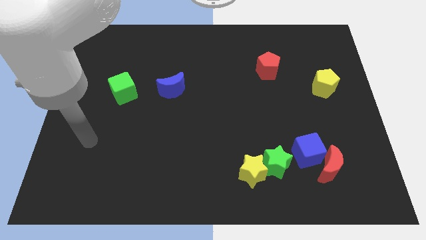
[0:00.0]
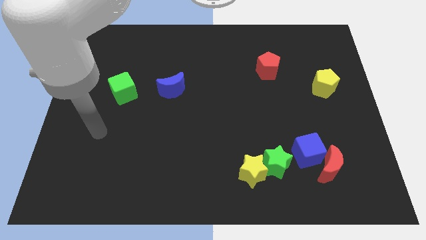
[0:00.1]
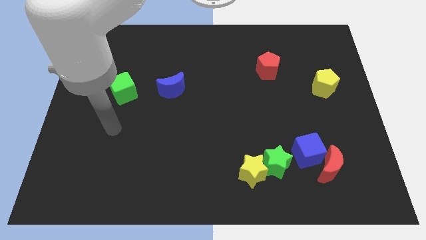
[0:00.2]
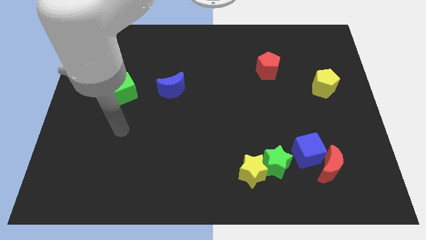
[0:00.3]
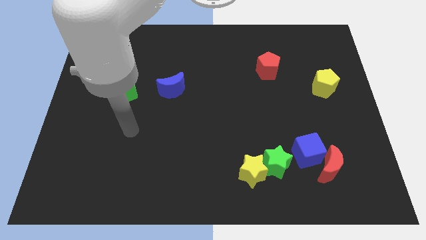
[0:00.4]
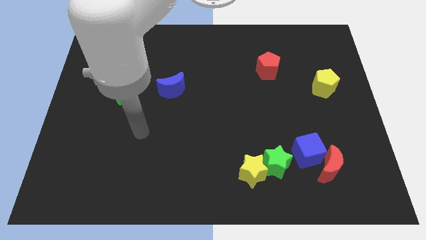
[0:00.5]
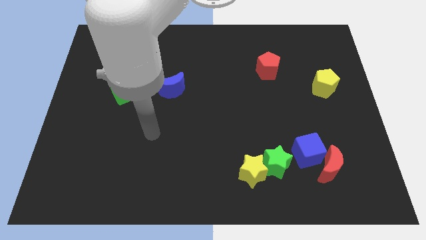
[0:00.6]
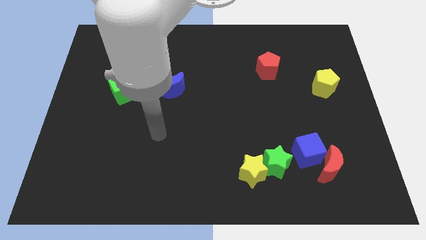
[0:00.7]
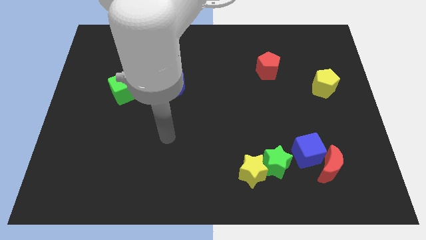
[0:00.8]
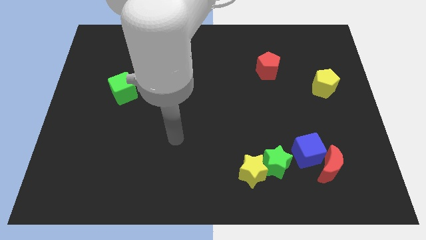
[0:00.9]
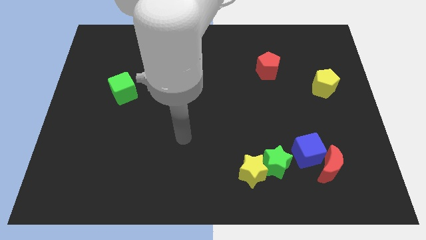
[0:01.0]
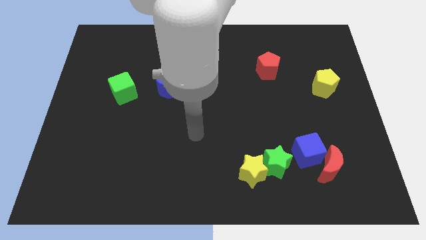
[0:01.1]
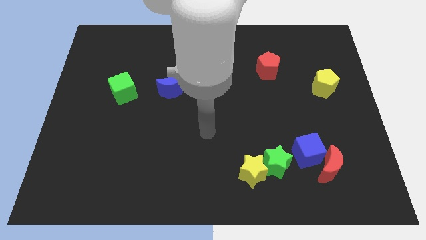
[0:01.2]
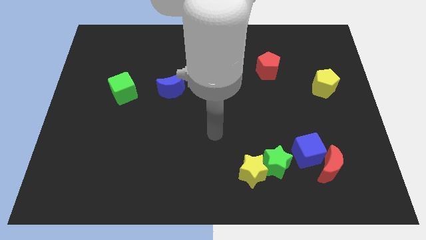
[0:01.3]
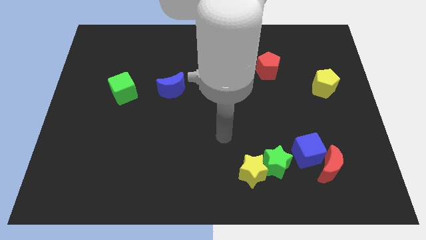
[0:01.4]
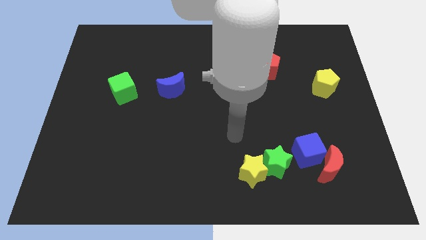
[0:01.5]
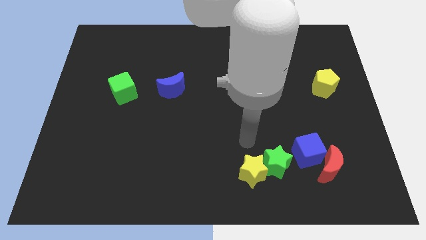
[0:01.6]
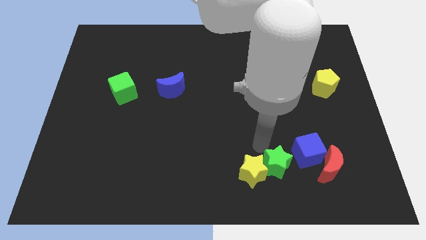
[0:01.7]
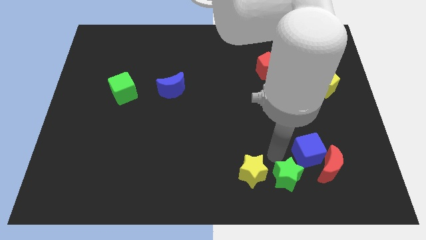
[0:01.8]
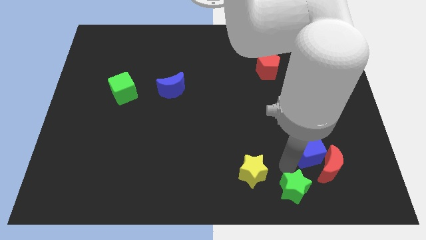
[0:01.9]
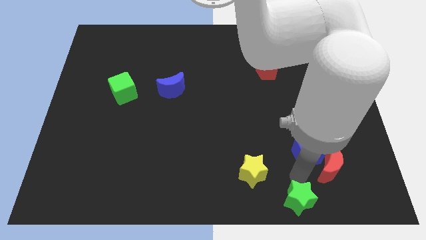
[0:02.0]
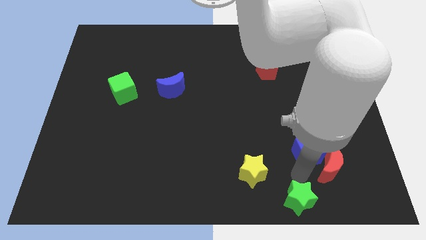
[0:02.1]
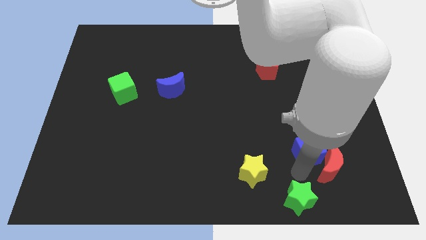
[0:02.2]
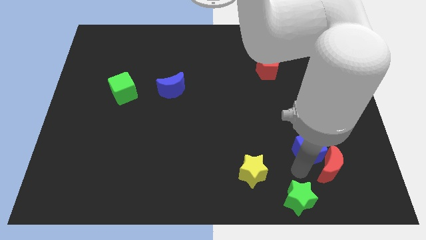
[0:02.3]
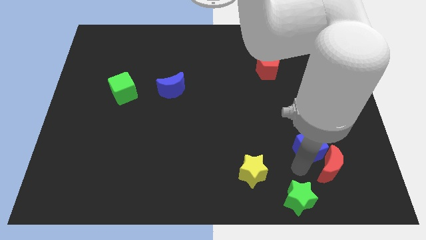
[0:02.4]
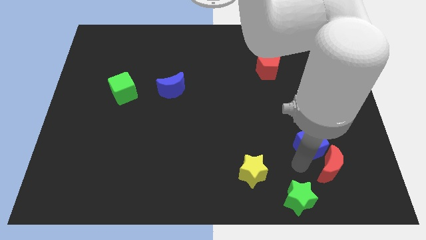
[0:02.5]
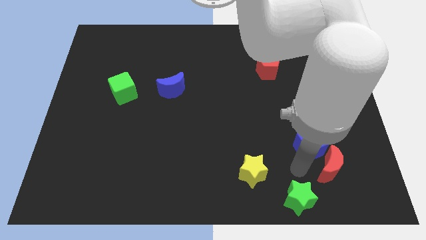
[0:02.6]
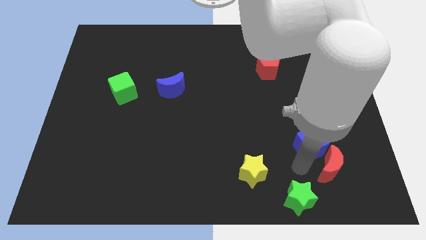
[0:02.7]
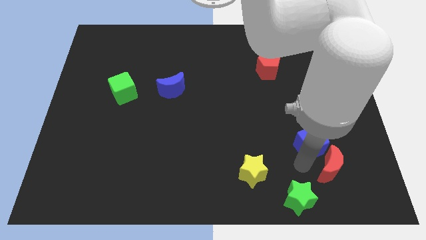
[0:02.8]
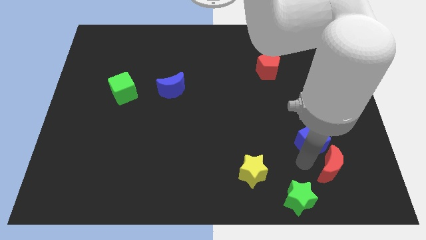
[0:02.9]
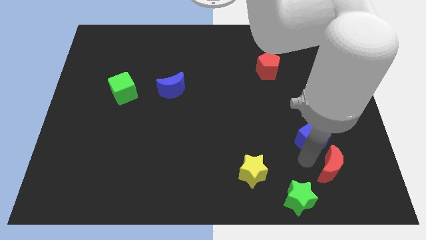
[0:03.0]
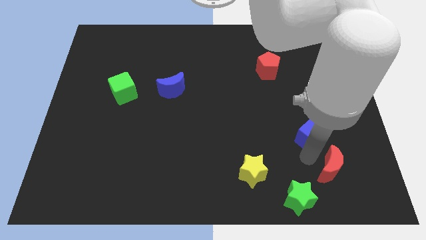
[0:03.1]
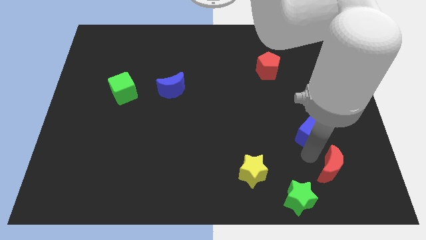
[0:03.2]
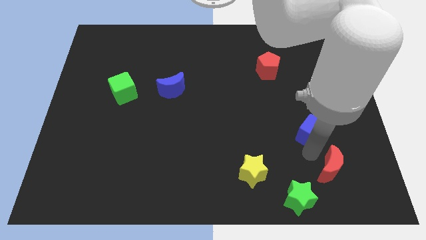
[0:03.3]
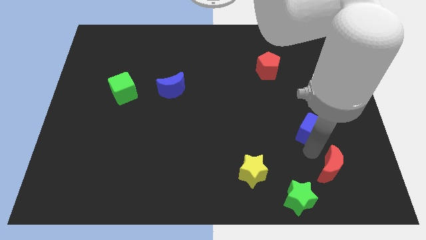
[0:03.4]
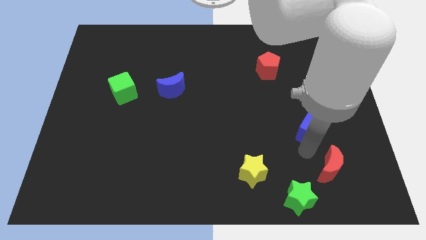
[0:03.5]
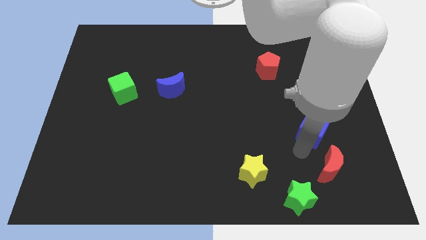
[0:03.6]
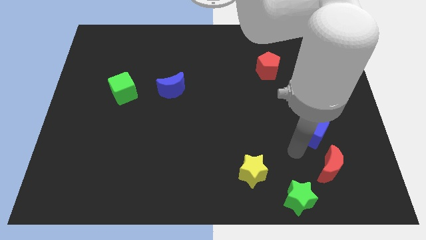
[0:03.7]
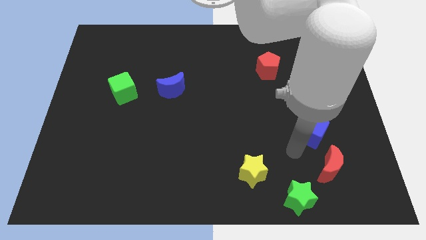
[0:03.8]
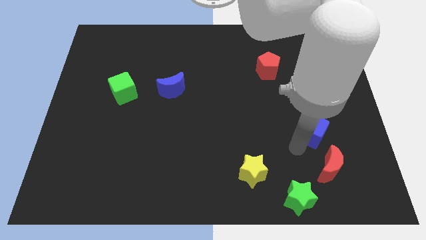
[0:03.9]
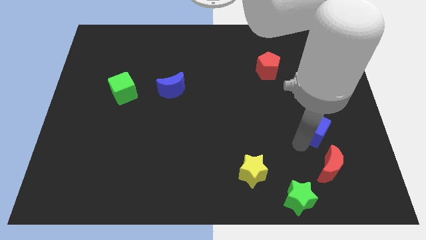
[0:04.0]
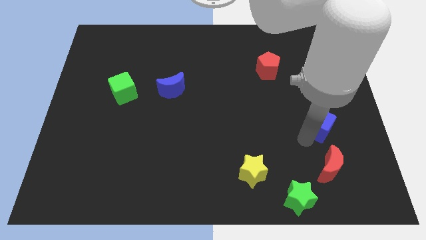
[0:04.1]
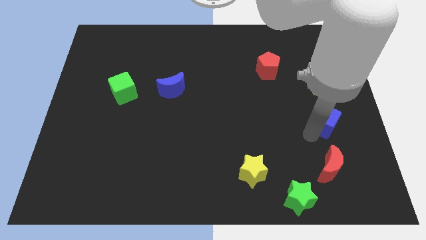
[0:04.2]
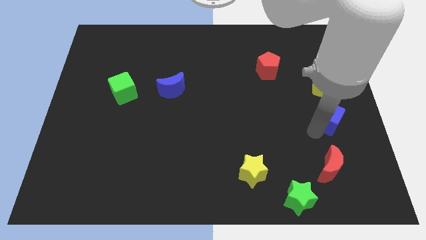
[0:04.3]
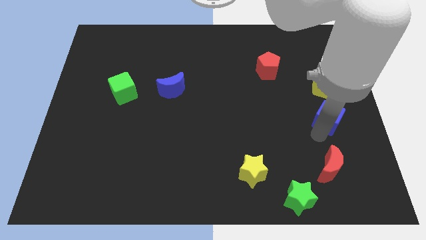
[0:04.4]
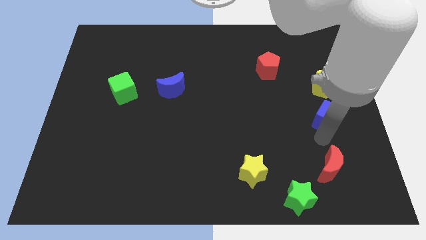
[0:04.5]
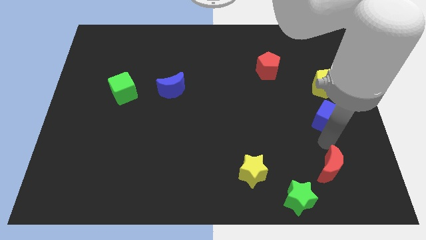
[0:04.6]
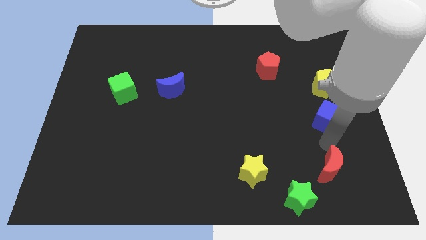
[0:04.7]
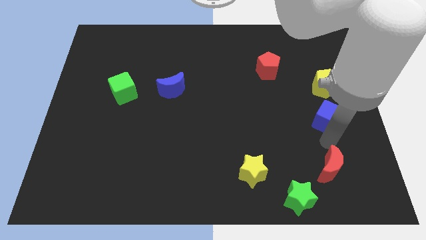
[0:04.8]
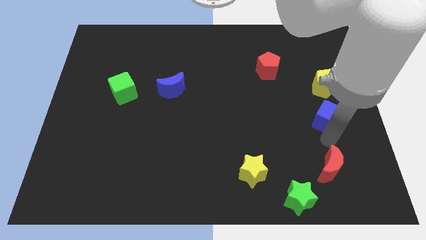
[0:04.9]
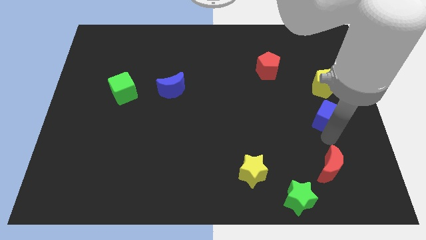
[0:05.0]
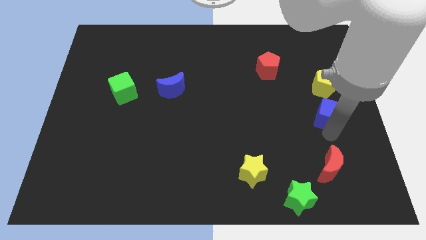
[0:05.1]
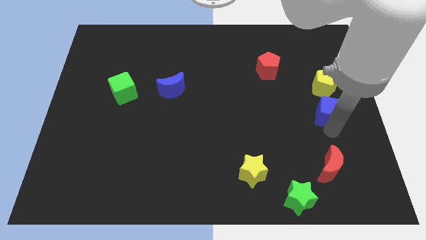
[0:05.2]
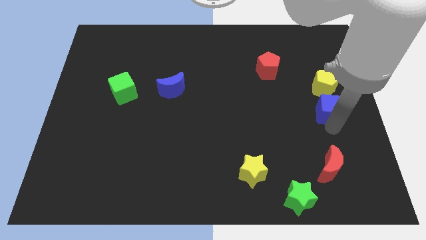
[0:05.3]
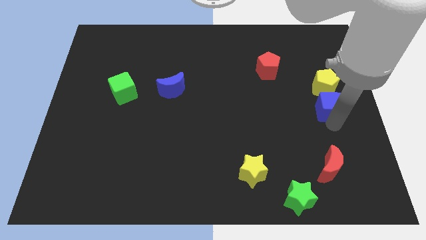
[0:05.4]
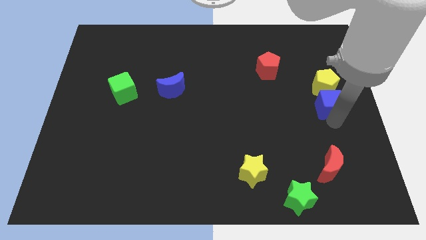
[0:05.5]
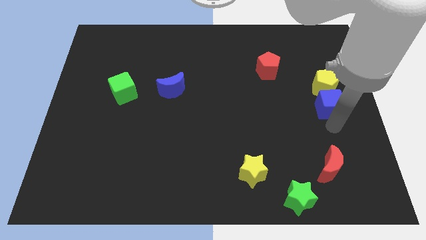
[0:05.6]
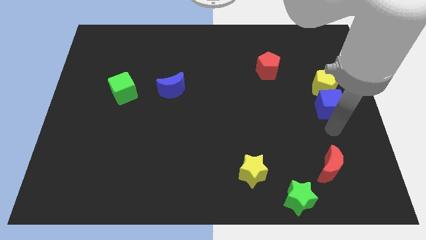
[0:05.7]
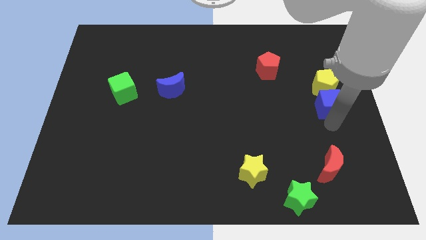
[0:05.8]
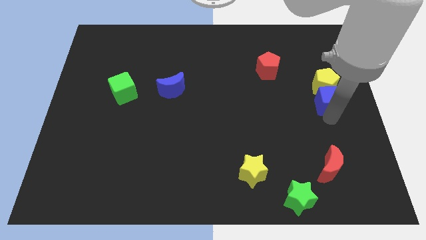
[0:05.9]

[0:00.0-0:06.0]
put the blue cube close to the yellow pentagon

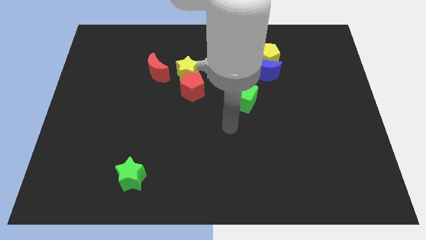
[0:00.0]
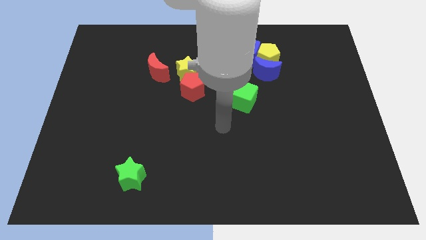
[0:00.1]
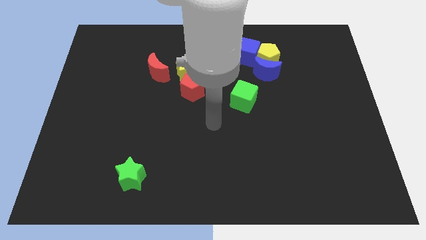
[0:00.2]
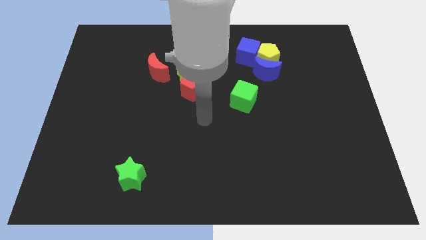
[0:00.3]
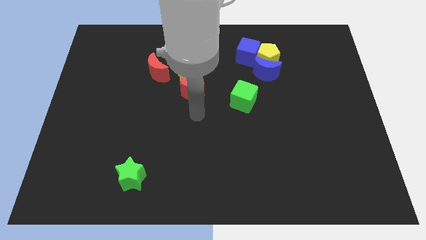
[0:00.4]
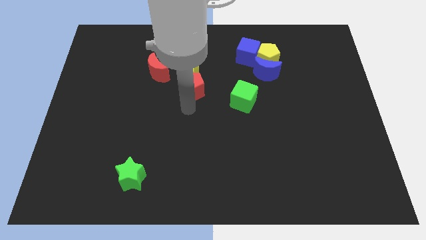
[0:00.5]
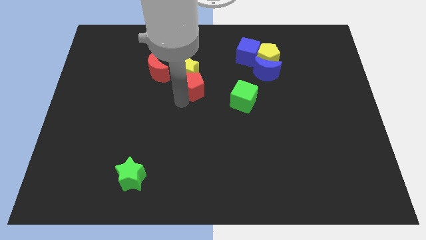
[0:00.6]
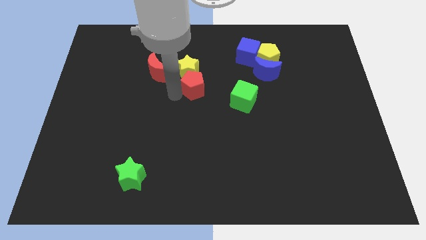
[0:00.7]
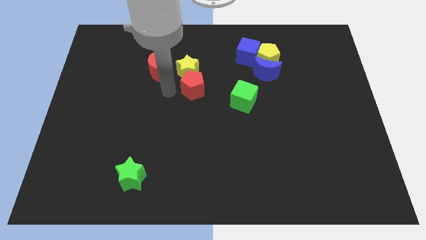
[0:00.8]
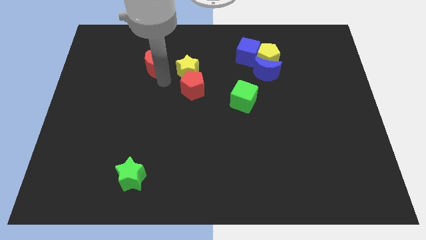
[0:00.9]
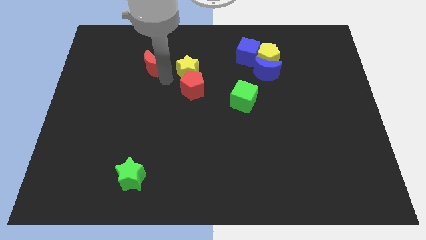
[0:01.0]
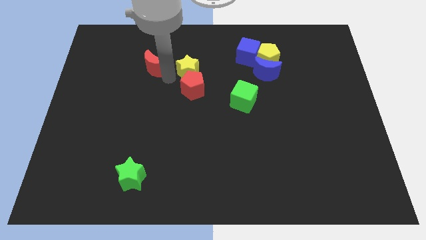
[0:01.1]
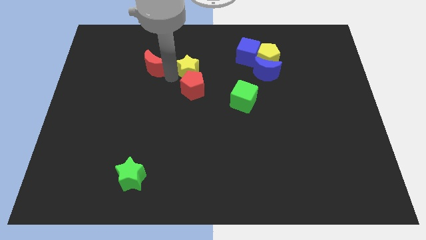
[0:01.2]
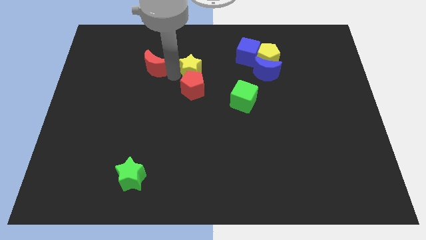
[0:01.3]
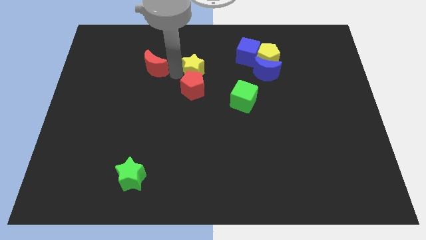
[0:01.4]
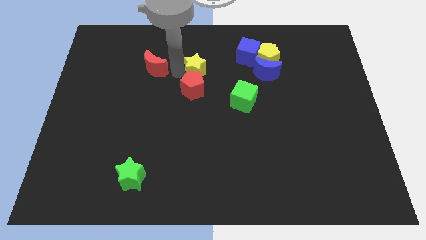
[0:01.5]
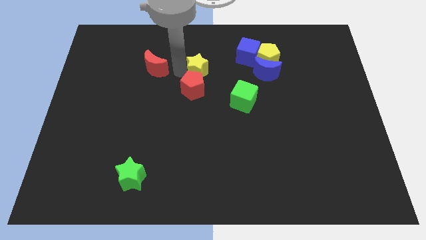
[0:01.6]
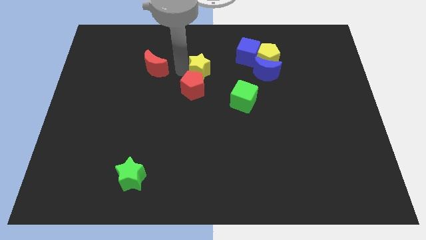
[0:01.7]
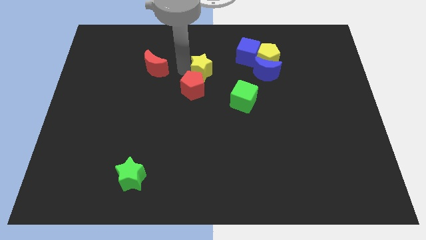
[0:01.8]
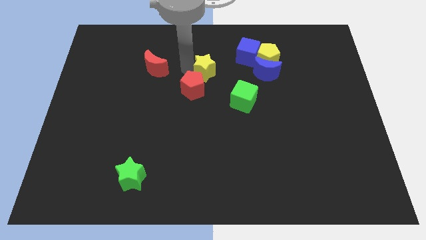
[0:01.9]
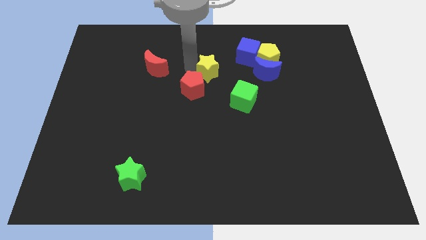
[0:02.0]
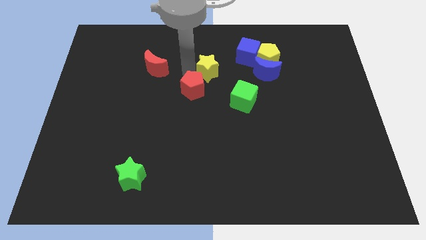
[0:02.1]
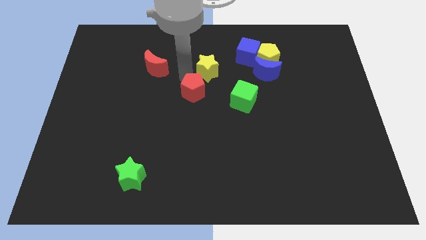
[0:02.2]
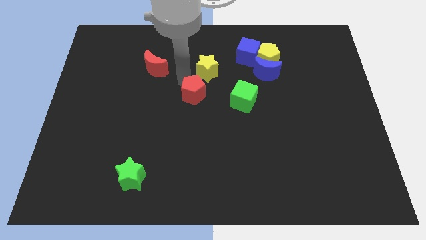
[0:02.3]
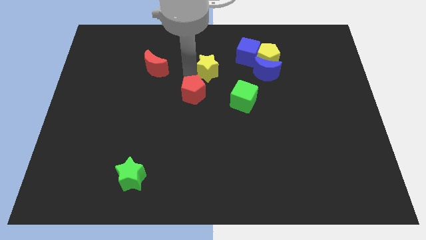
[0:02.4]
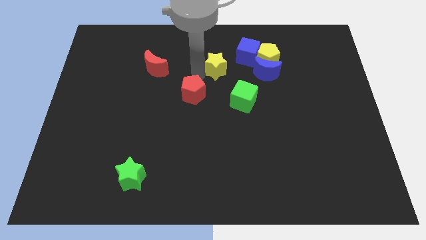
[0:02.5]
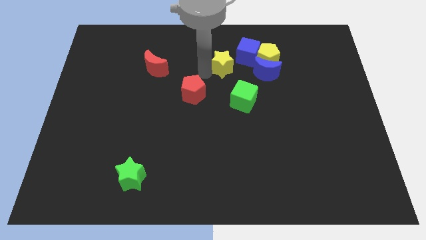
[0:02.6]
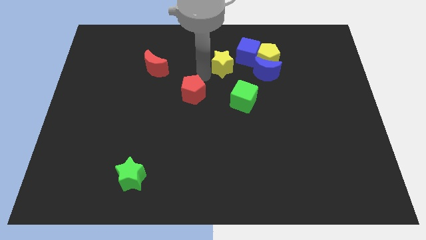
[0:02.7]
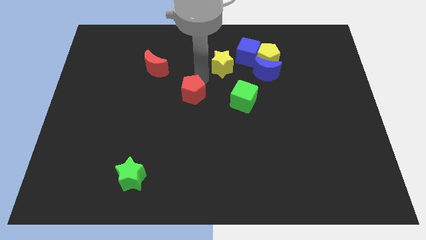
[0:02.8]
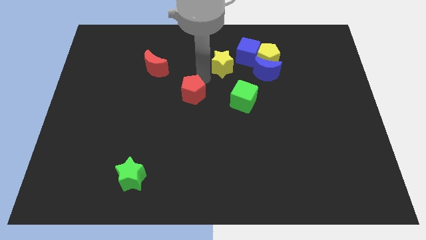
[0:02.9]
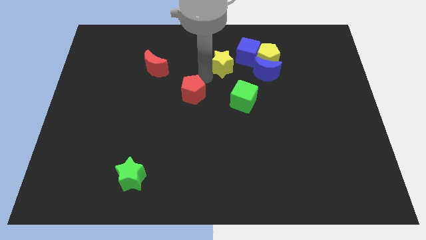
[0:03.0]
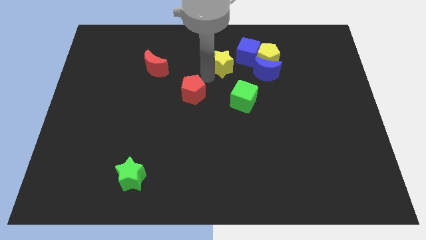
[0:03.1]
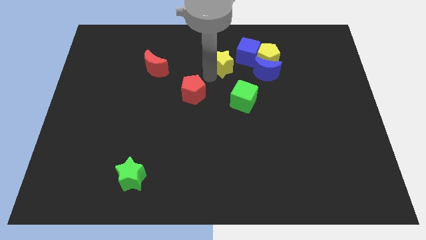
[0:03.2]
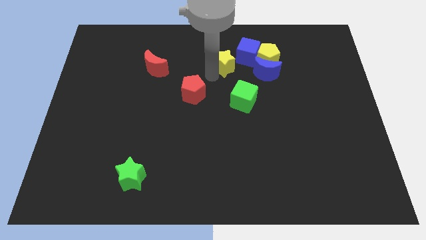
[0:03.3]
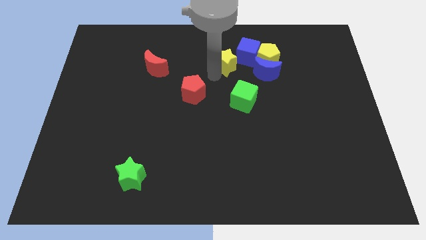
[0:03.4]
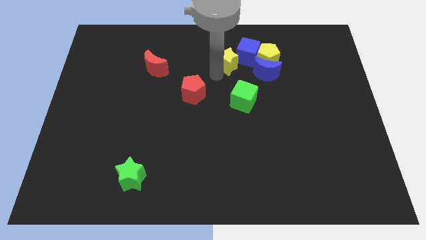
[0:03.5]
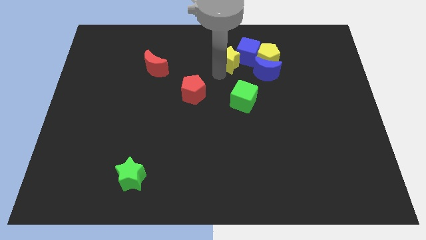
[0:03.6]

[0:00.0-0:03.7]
put the yellow star next to the blue cube
